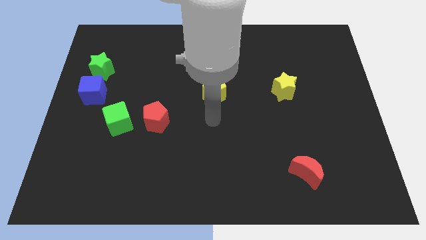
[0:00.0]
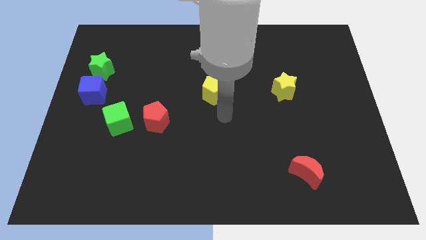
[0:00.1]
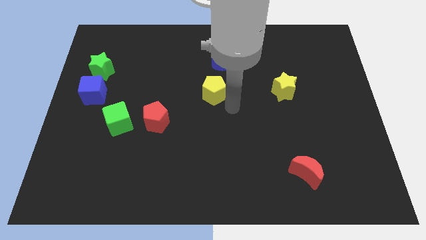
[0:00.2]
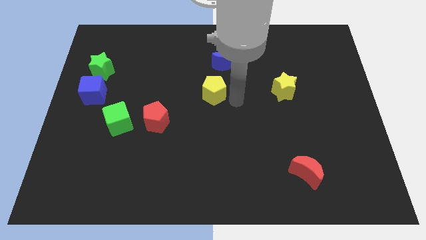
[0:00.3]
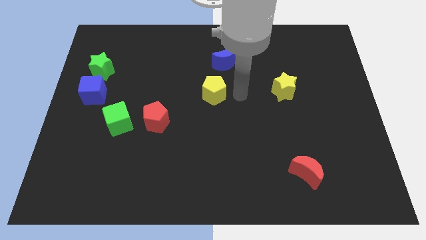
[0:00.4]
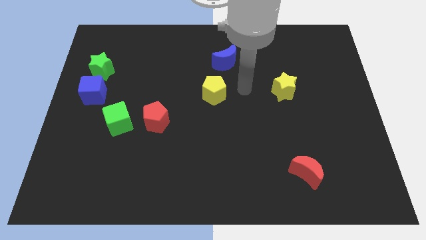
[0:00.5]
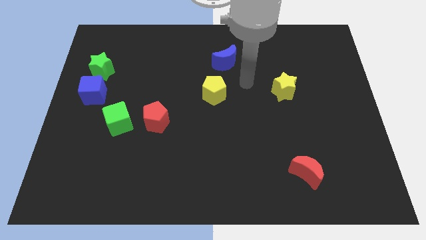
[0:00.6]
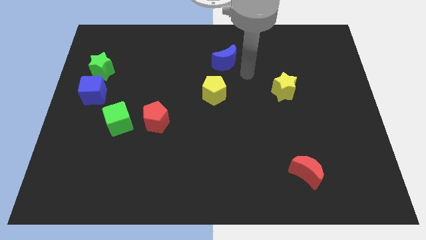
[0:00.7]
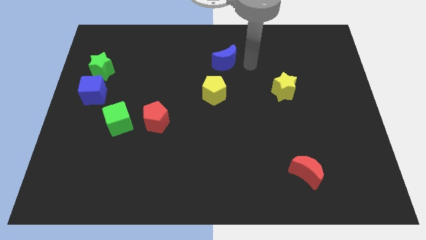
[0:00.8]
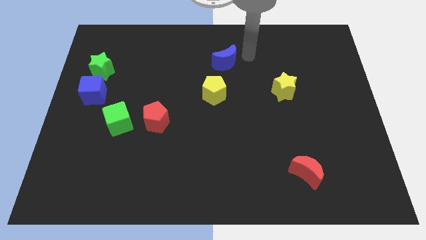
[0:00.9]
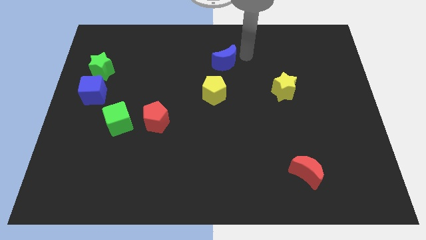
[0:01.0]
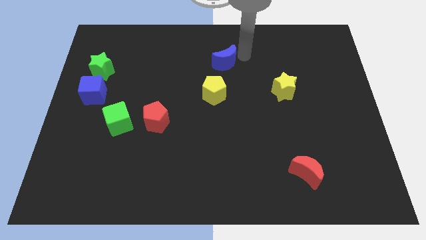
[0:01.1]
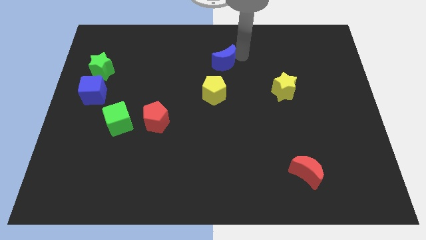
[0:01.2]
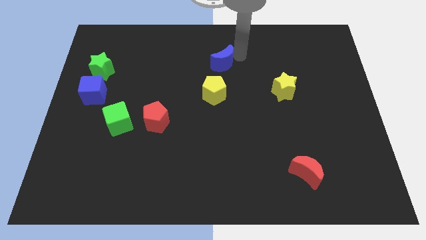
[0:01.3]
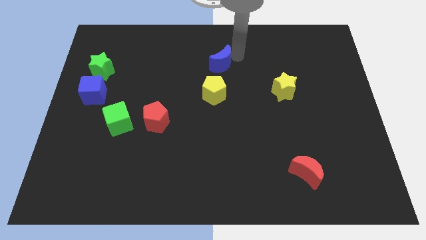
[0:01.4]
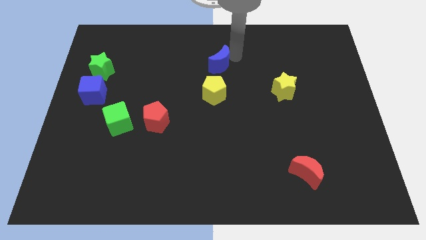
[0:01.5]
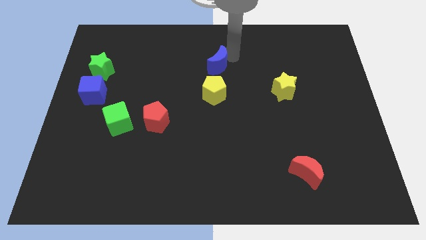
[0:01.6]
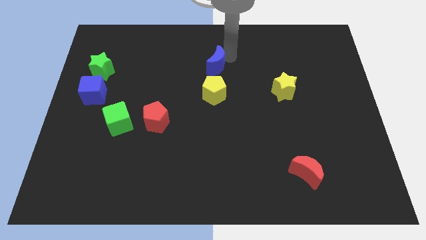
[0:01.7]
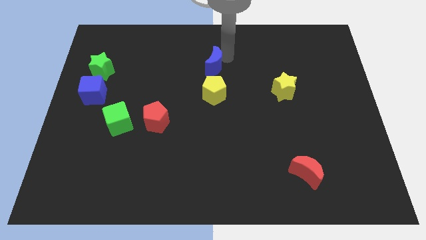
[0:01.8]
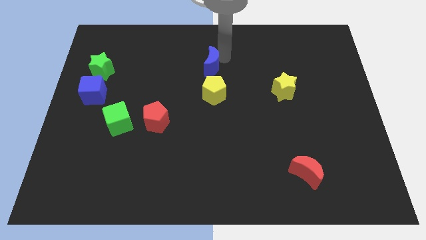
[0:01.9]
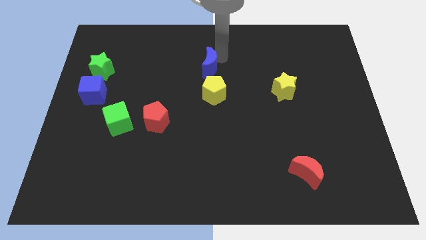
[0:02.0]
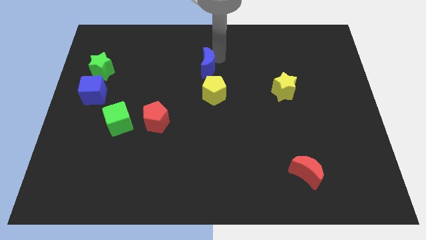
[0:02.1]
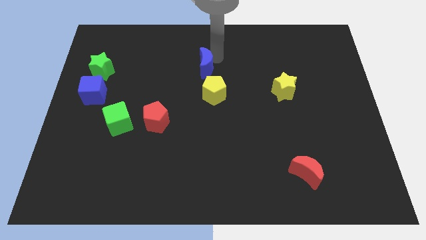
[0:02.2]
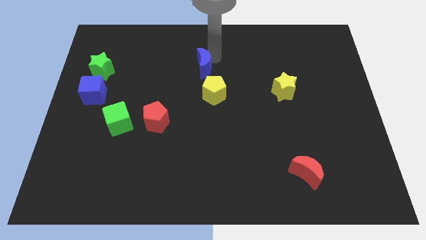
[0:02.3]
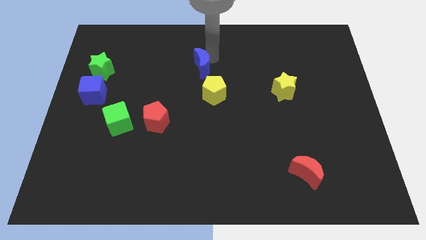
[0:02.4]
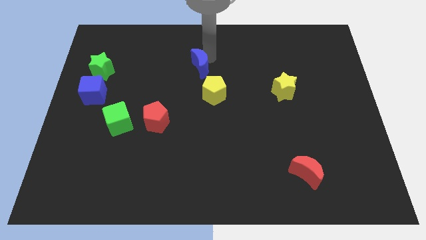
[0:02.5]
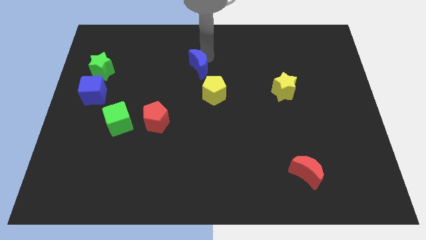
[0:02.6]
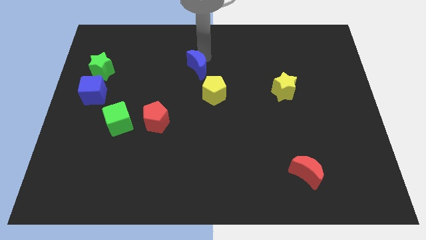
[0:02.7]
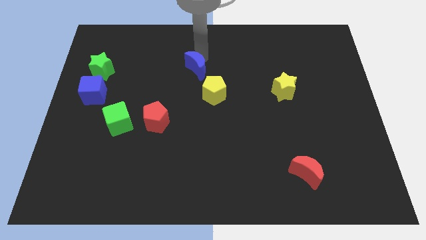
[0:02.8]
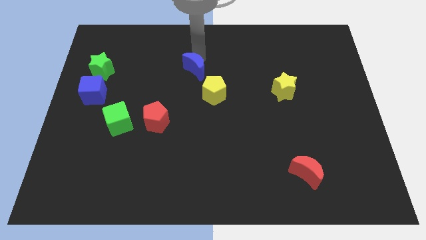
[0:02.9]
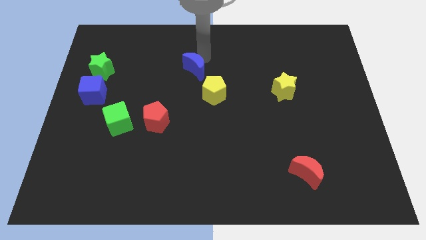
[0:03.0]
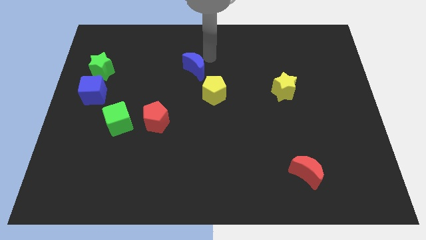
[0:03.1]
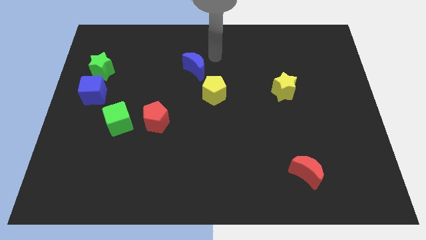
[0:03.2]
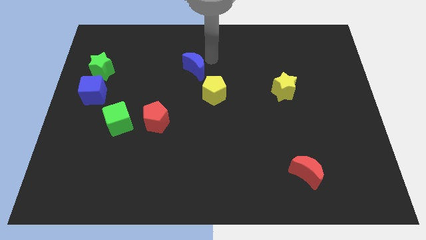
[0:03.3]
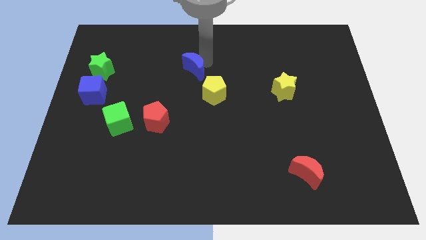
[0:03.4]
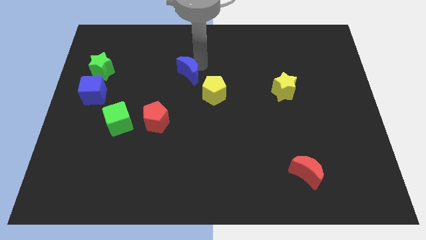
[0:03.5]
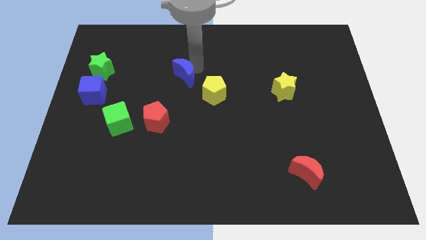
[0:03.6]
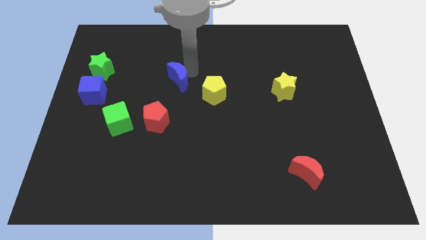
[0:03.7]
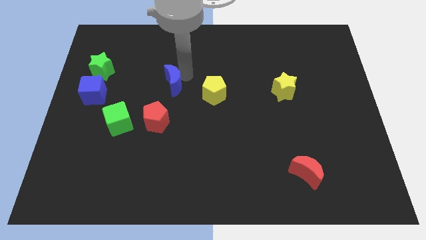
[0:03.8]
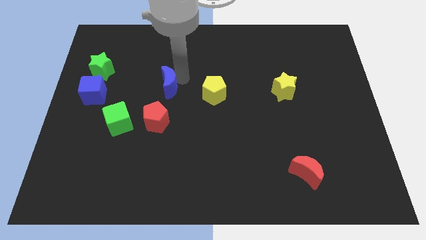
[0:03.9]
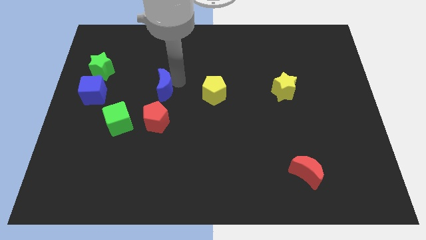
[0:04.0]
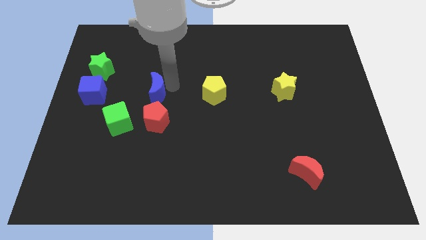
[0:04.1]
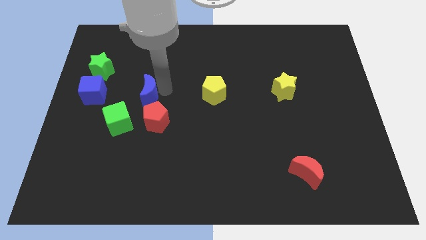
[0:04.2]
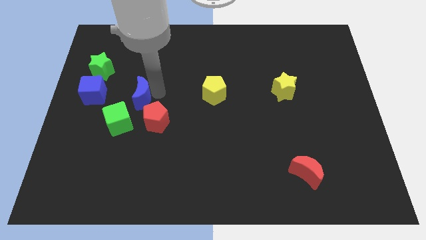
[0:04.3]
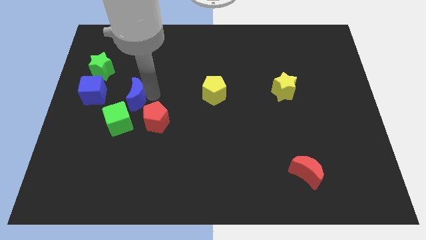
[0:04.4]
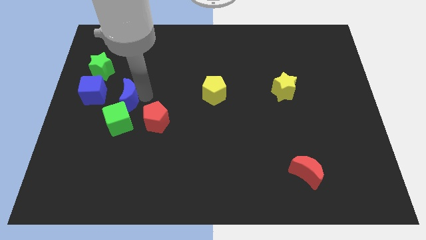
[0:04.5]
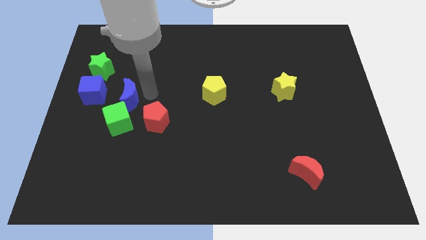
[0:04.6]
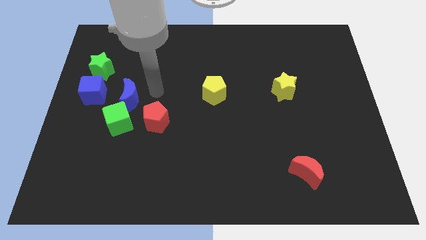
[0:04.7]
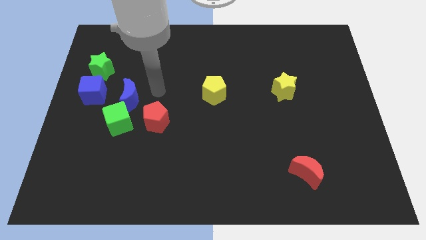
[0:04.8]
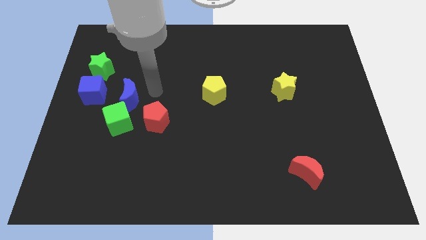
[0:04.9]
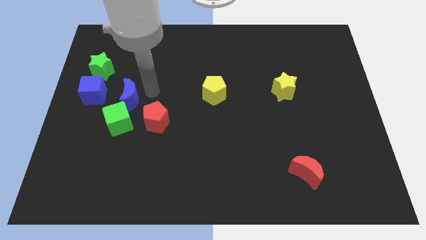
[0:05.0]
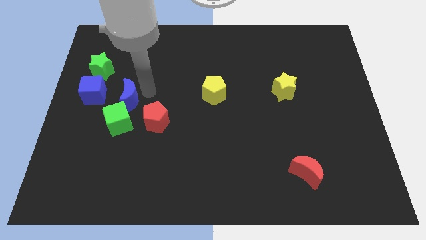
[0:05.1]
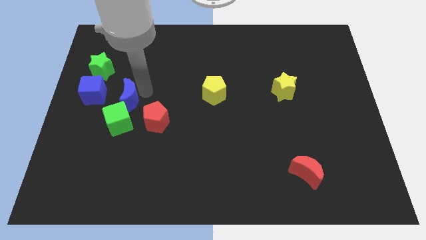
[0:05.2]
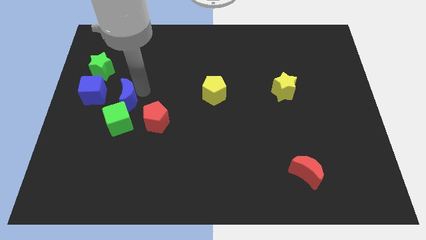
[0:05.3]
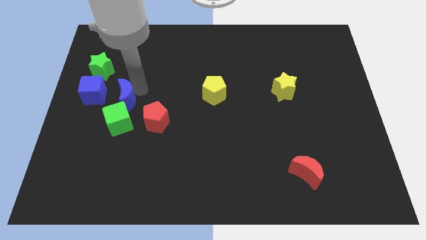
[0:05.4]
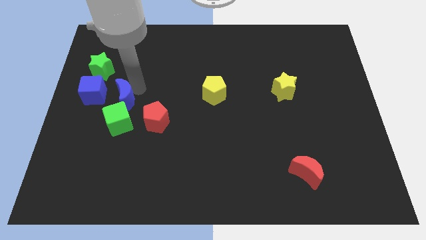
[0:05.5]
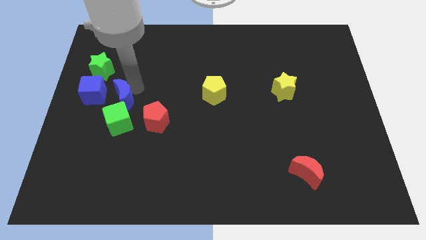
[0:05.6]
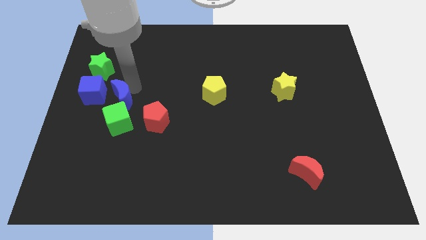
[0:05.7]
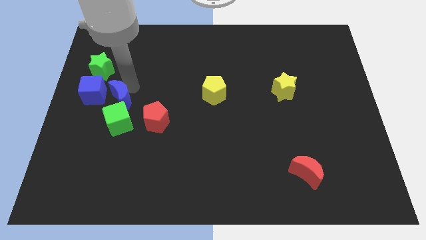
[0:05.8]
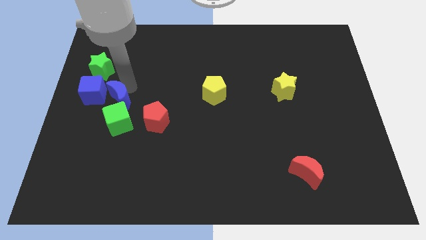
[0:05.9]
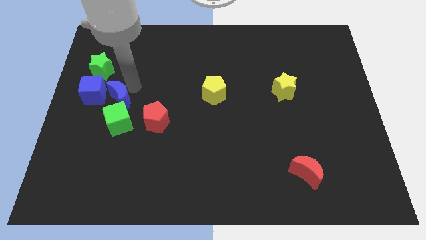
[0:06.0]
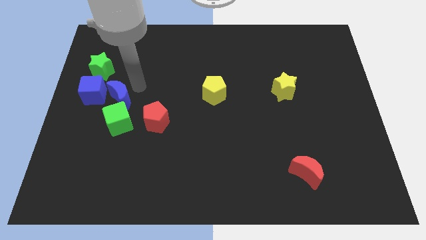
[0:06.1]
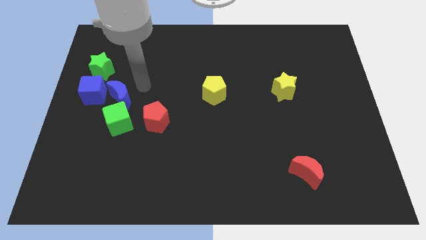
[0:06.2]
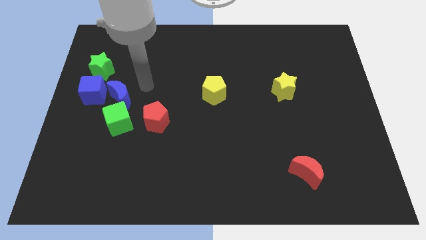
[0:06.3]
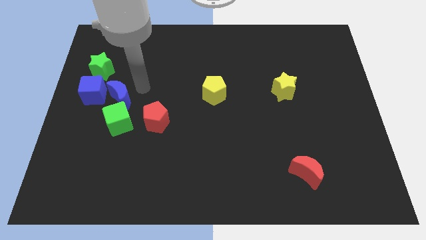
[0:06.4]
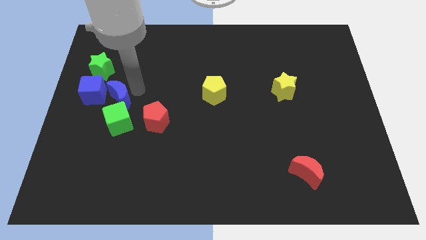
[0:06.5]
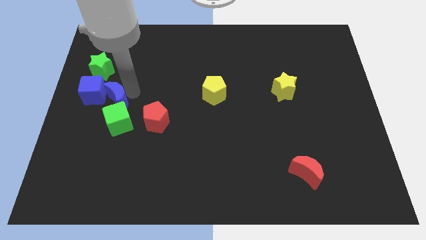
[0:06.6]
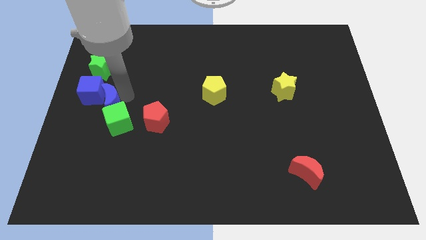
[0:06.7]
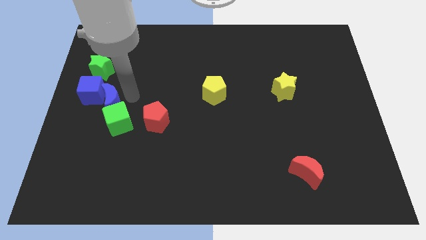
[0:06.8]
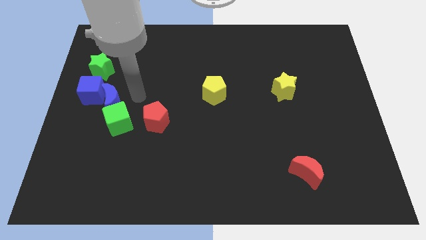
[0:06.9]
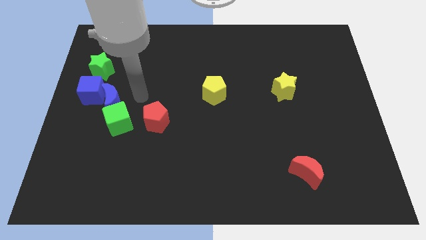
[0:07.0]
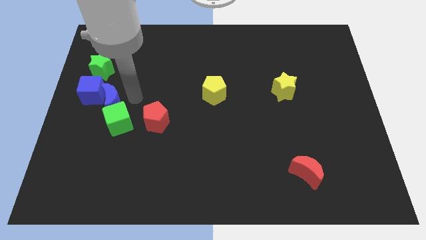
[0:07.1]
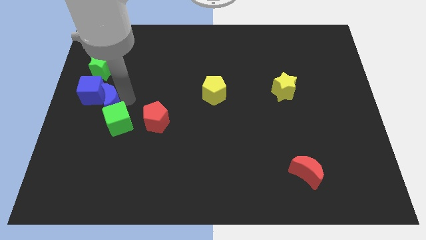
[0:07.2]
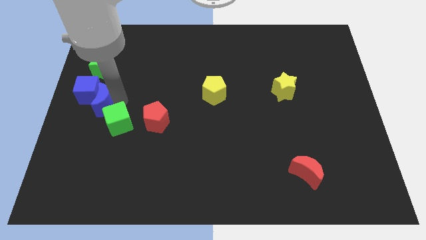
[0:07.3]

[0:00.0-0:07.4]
put the blue moon to the left side
